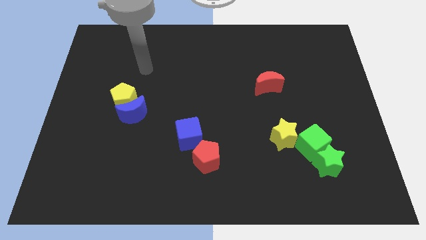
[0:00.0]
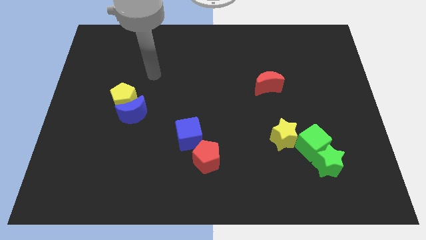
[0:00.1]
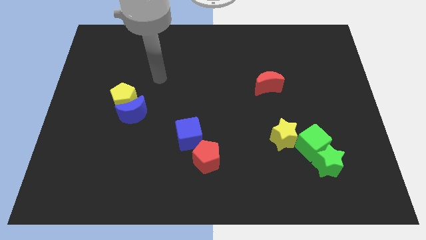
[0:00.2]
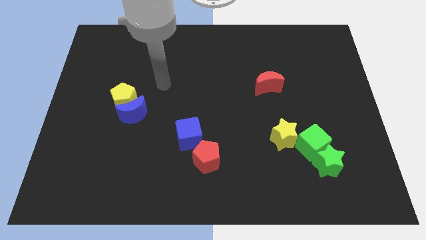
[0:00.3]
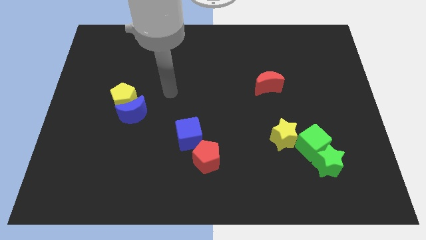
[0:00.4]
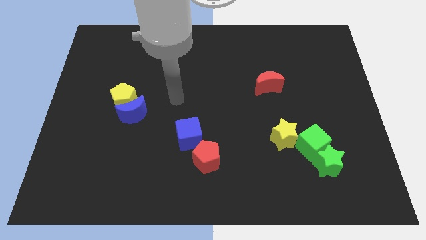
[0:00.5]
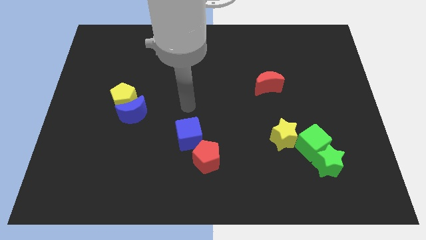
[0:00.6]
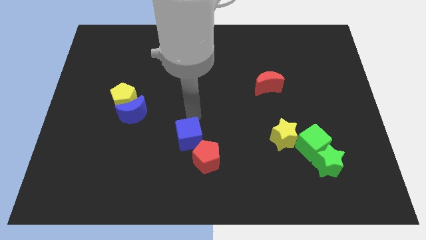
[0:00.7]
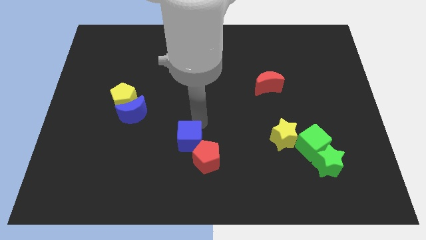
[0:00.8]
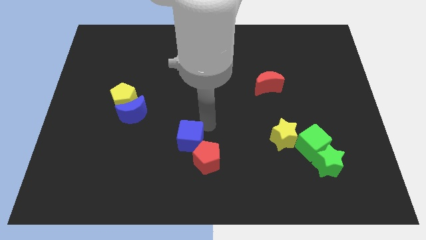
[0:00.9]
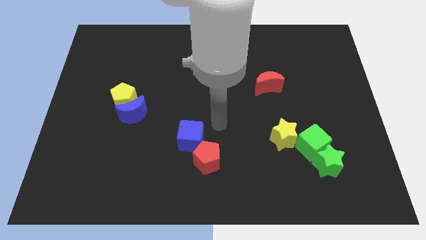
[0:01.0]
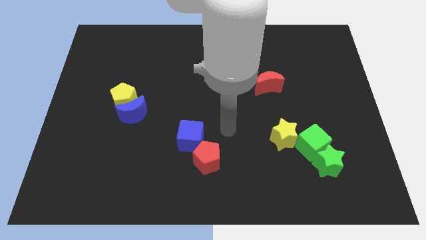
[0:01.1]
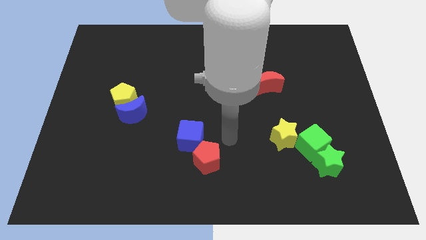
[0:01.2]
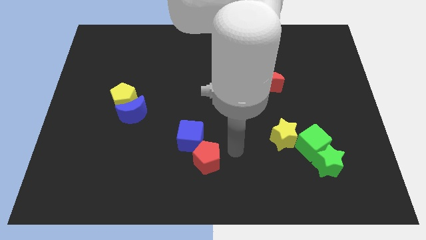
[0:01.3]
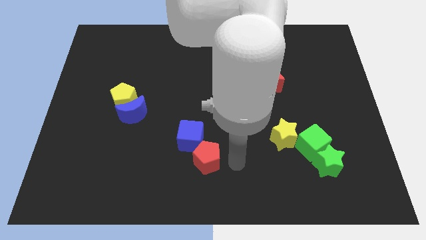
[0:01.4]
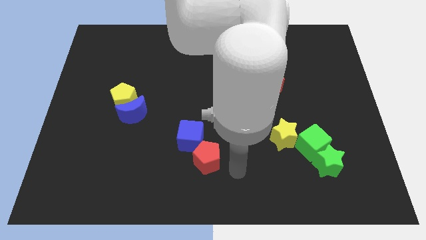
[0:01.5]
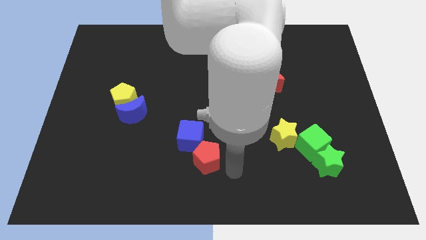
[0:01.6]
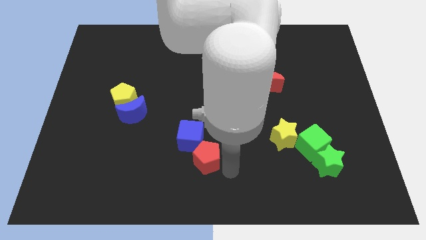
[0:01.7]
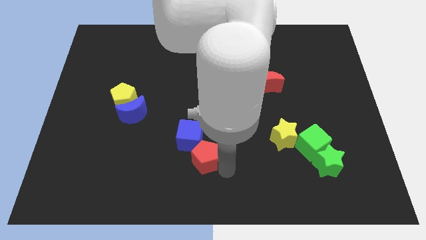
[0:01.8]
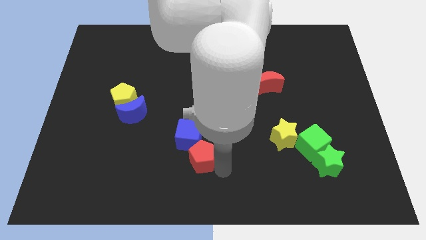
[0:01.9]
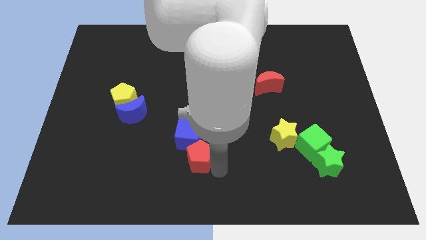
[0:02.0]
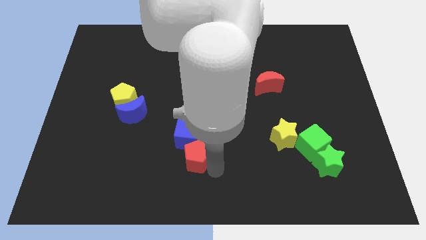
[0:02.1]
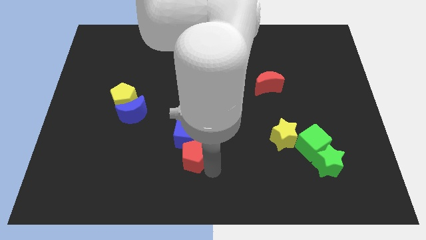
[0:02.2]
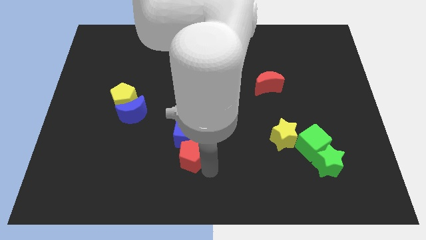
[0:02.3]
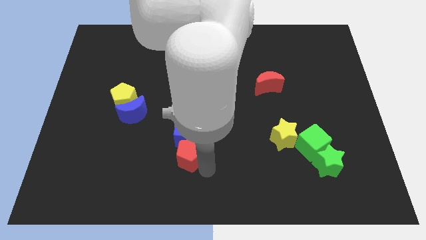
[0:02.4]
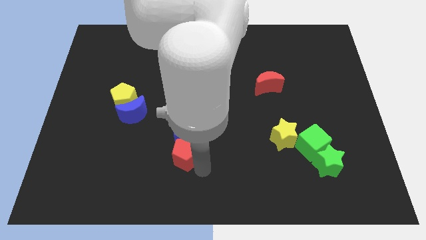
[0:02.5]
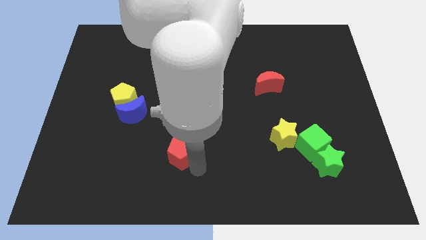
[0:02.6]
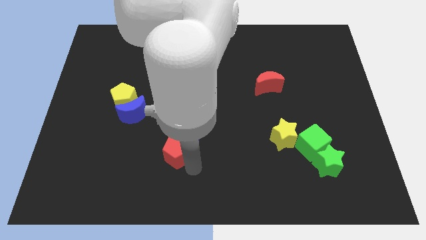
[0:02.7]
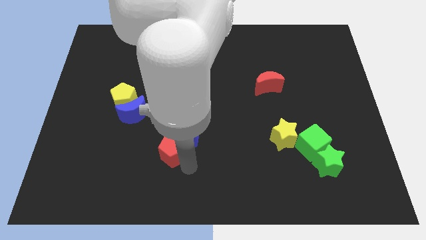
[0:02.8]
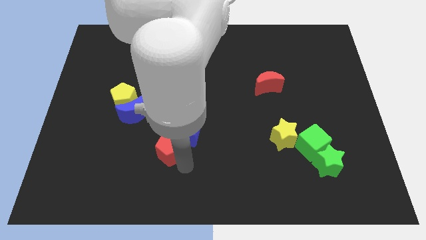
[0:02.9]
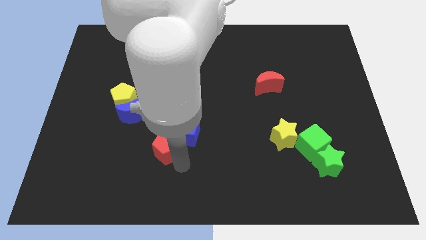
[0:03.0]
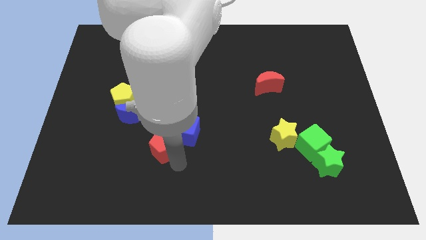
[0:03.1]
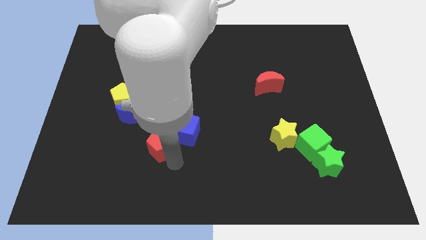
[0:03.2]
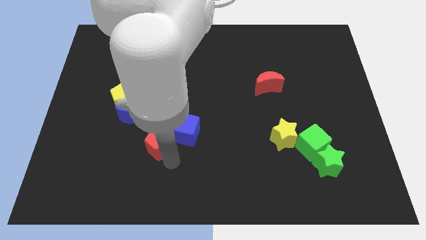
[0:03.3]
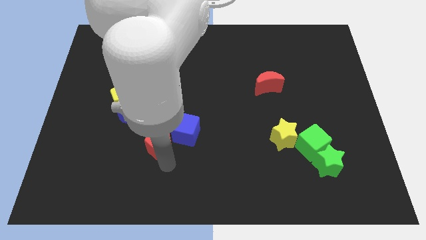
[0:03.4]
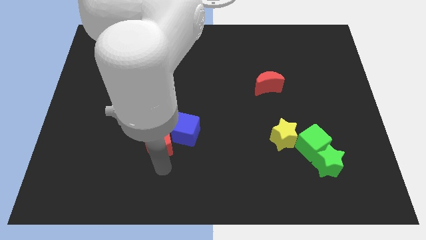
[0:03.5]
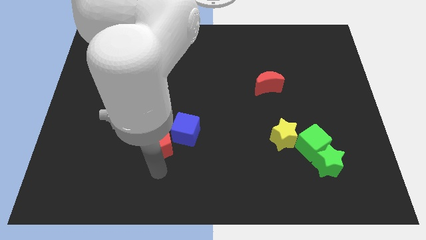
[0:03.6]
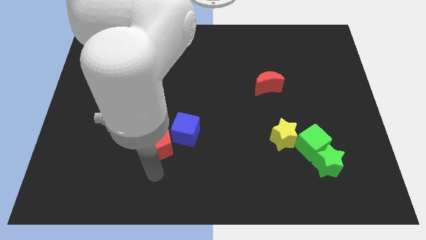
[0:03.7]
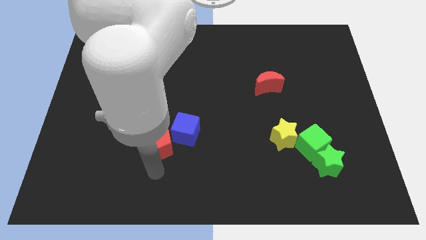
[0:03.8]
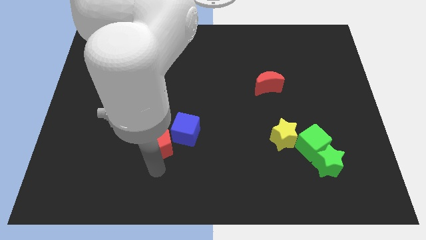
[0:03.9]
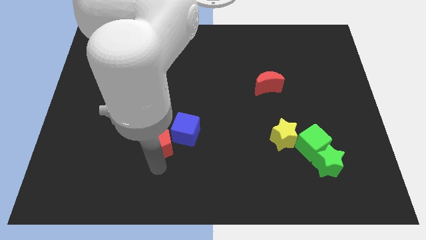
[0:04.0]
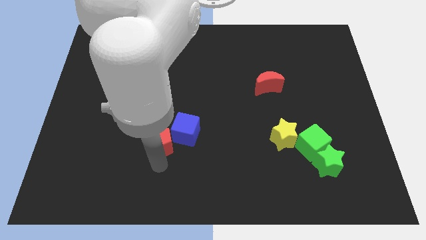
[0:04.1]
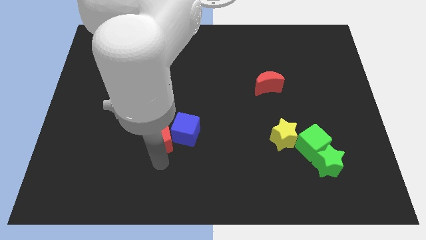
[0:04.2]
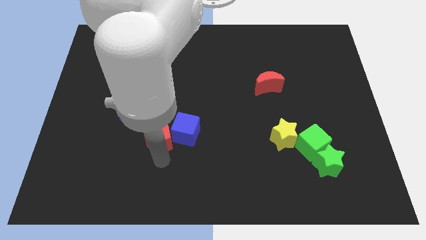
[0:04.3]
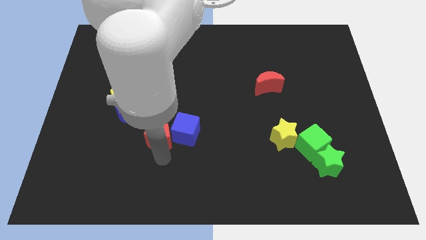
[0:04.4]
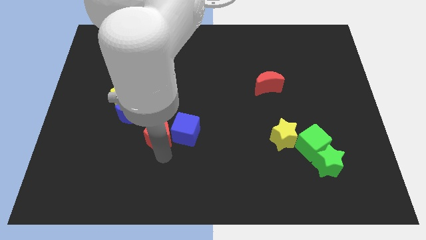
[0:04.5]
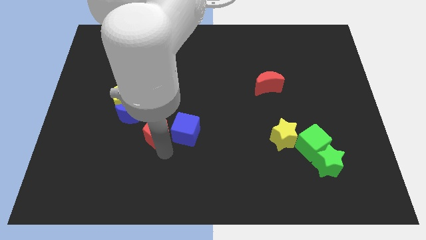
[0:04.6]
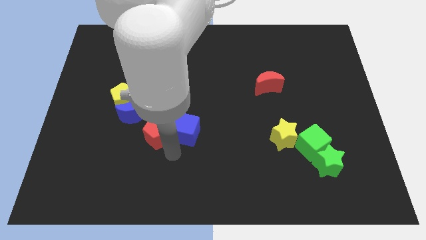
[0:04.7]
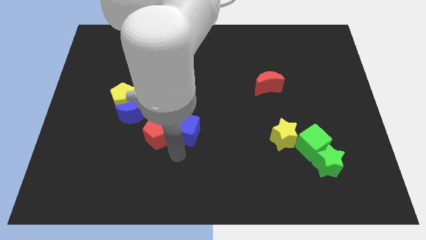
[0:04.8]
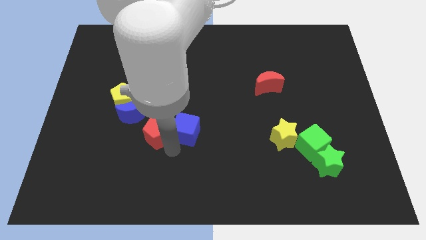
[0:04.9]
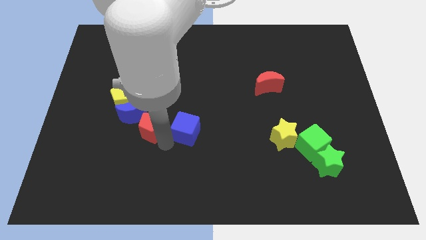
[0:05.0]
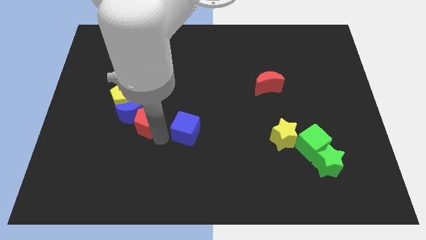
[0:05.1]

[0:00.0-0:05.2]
put the red pentagon next to the blue moon

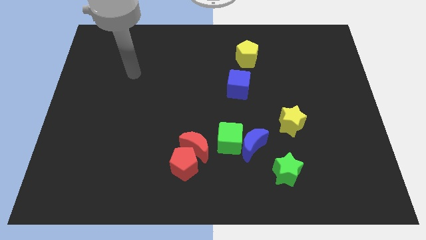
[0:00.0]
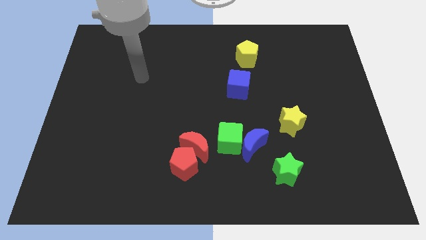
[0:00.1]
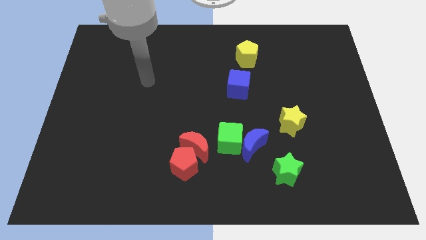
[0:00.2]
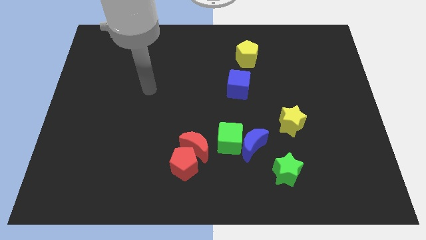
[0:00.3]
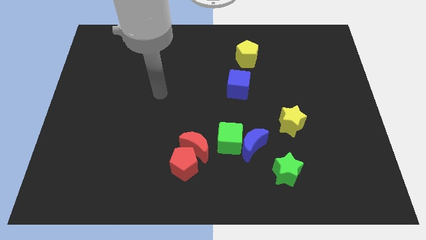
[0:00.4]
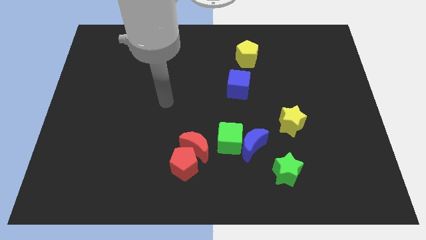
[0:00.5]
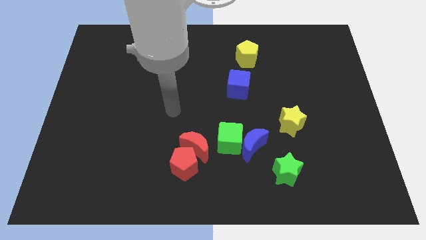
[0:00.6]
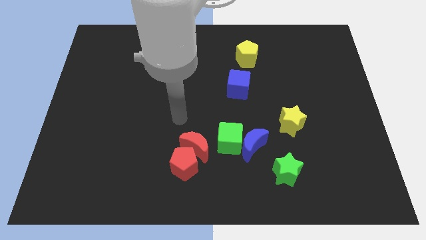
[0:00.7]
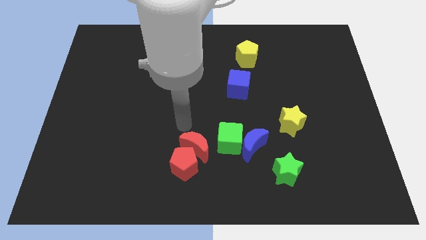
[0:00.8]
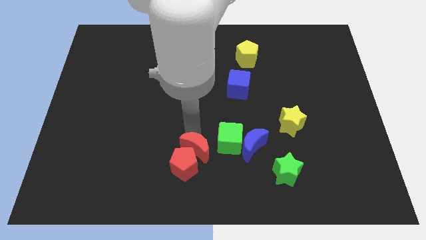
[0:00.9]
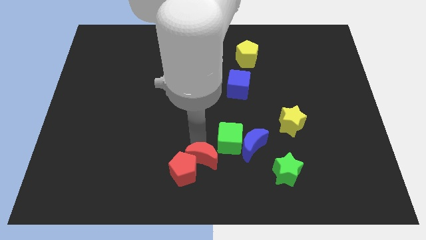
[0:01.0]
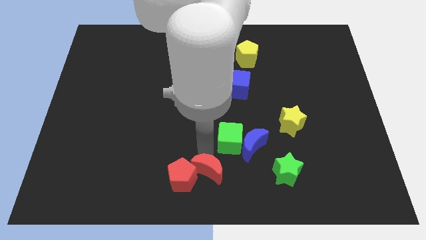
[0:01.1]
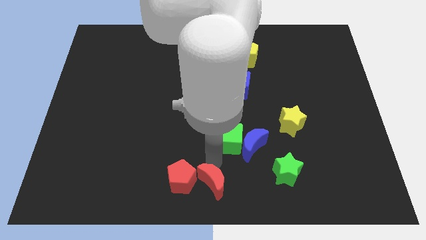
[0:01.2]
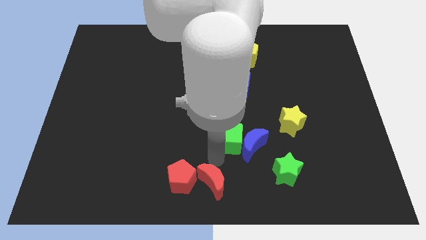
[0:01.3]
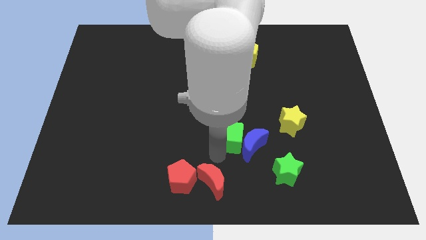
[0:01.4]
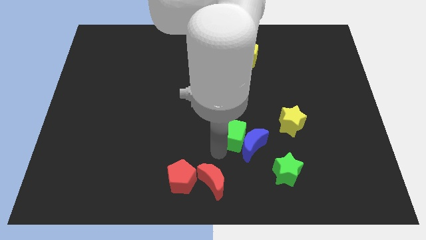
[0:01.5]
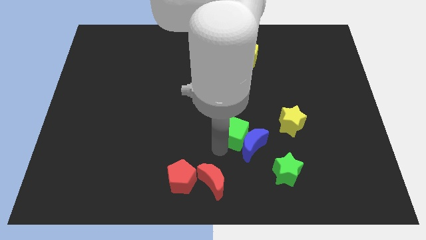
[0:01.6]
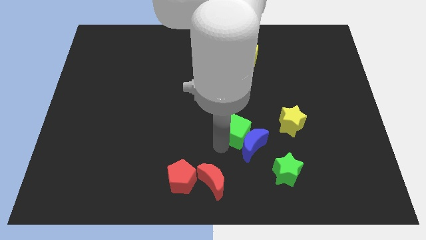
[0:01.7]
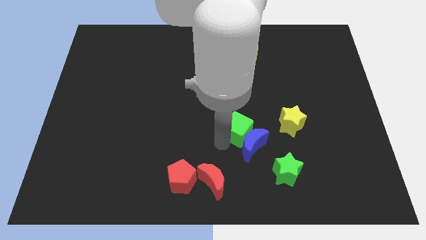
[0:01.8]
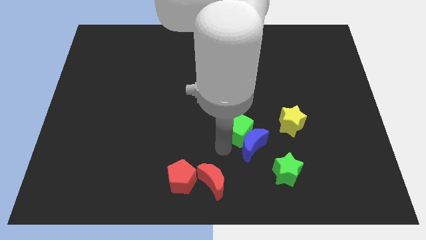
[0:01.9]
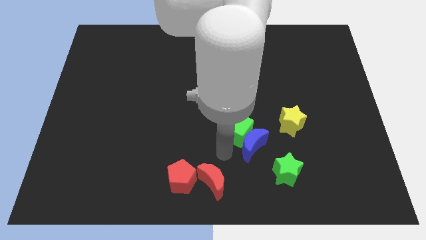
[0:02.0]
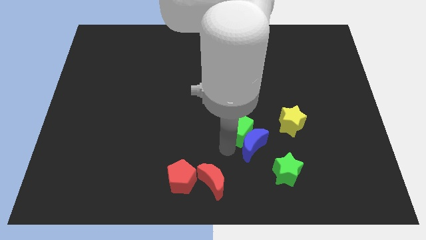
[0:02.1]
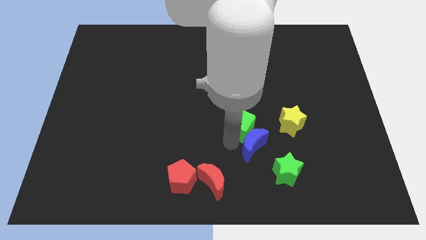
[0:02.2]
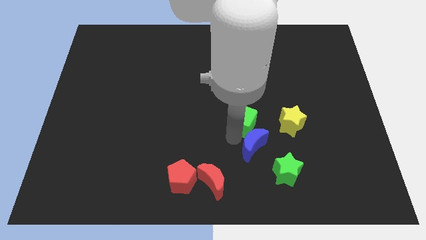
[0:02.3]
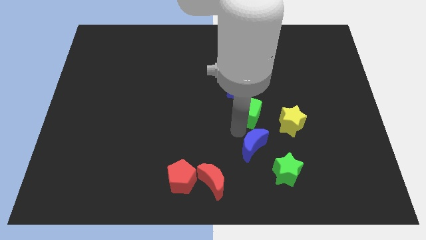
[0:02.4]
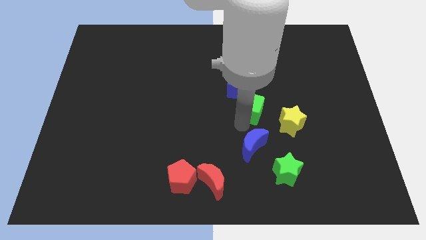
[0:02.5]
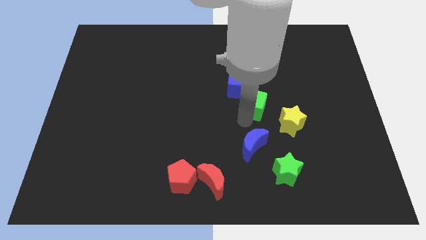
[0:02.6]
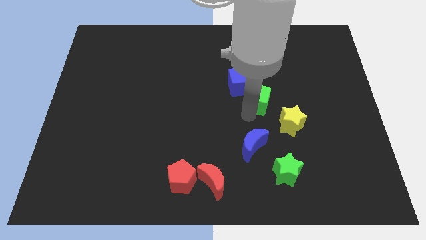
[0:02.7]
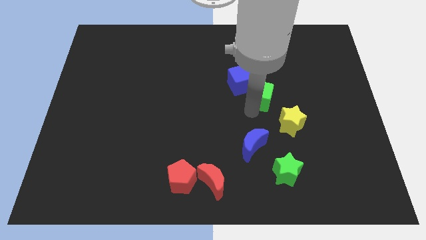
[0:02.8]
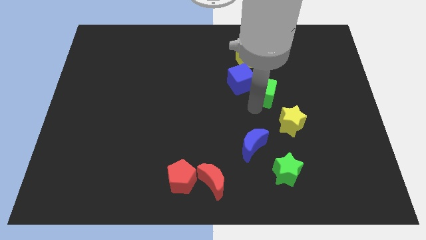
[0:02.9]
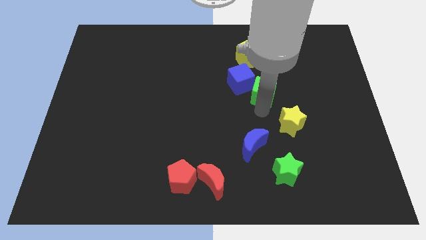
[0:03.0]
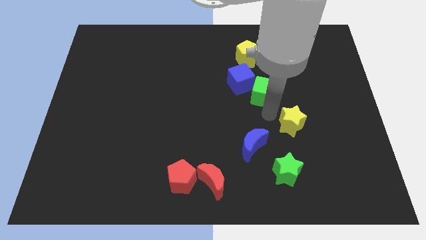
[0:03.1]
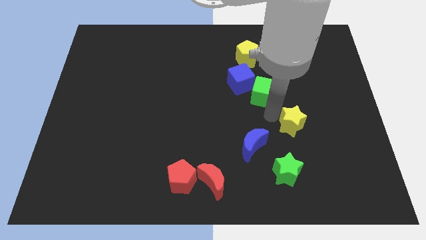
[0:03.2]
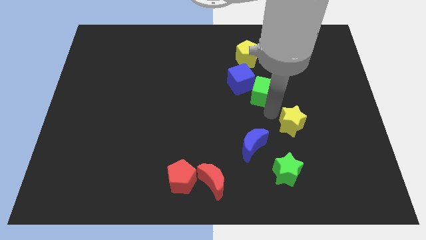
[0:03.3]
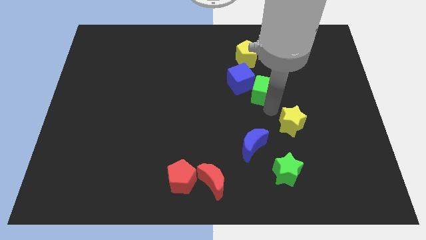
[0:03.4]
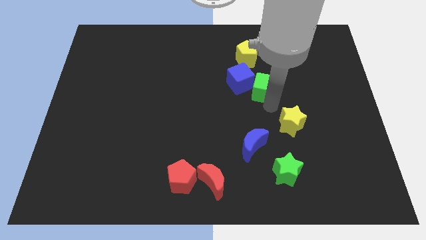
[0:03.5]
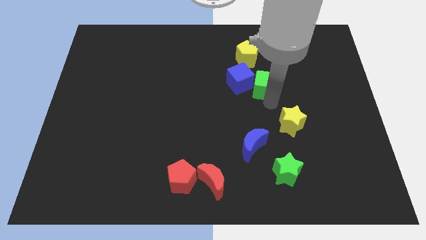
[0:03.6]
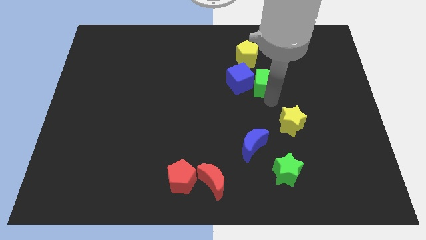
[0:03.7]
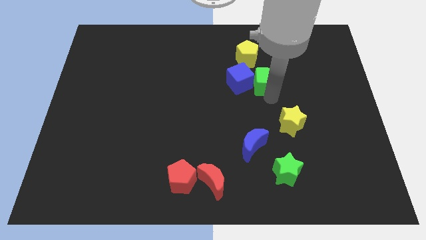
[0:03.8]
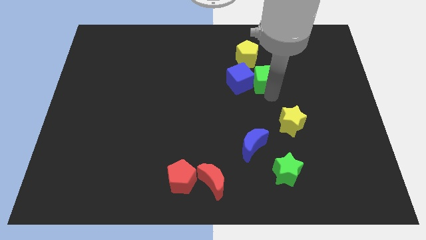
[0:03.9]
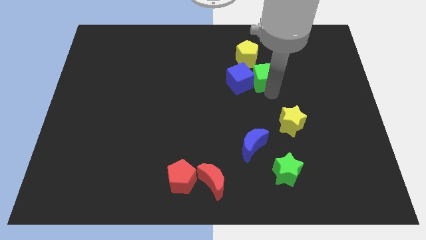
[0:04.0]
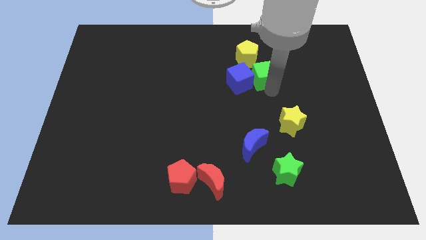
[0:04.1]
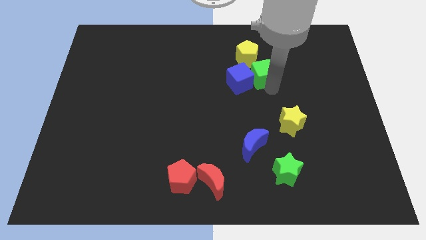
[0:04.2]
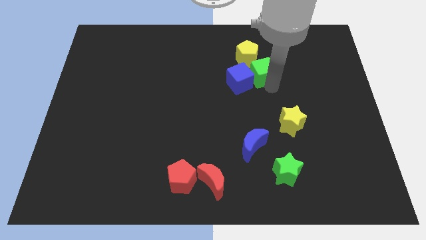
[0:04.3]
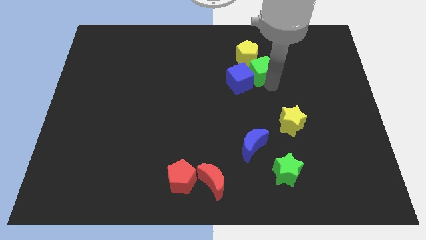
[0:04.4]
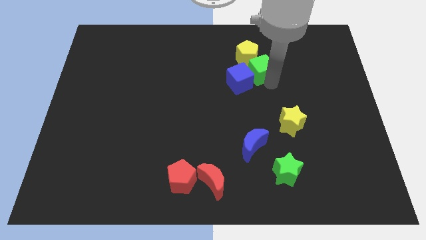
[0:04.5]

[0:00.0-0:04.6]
push the green cube next to the yellow pentagon
